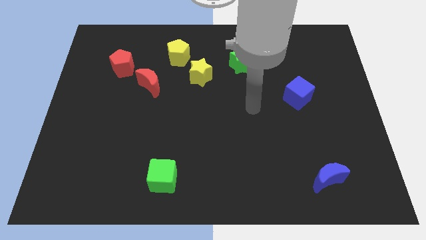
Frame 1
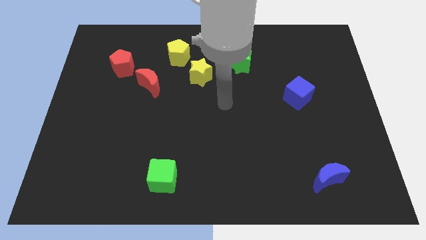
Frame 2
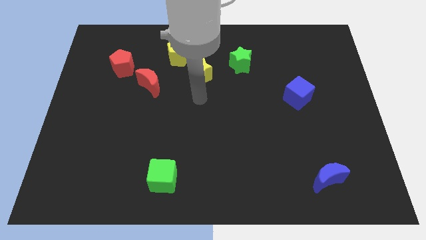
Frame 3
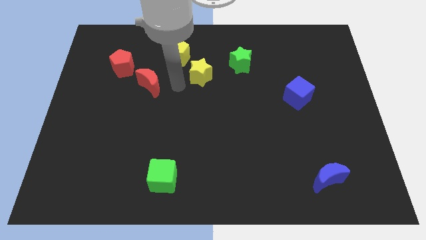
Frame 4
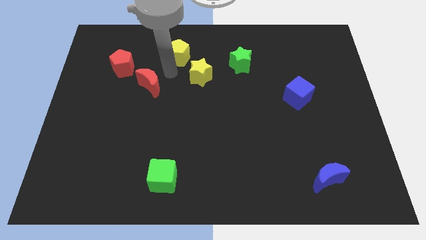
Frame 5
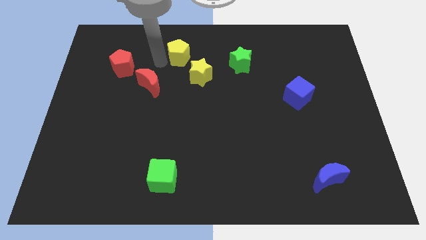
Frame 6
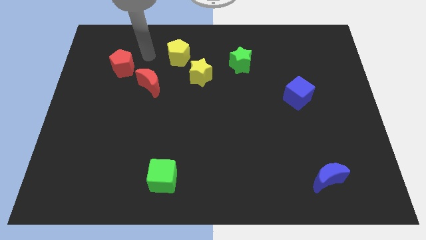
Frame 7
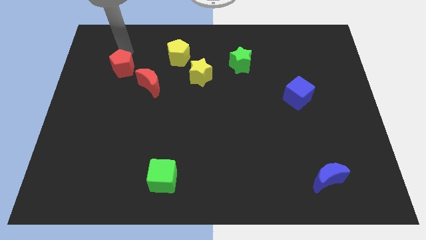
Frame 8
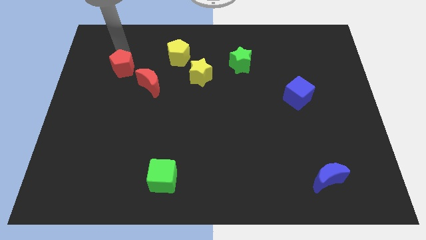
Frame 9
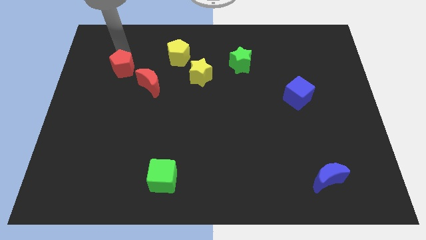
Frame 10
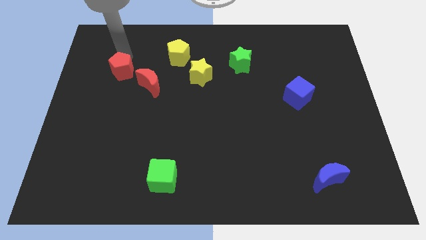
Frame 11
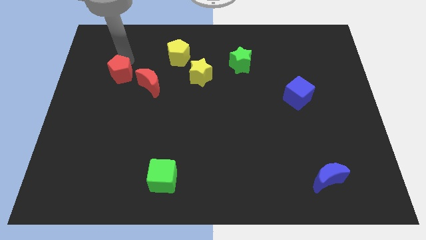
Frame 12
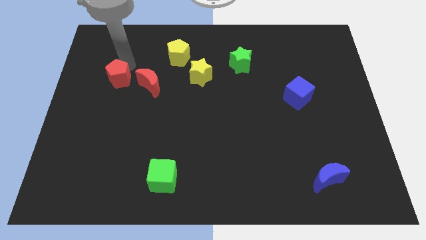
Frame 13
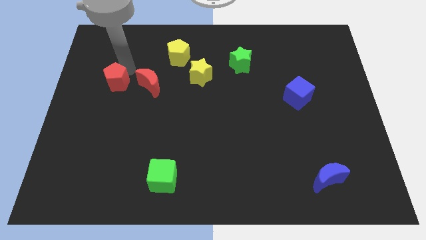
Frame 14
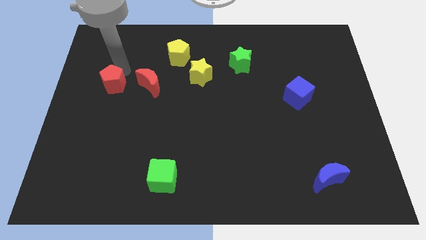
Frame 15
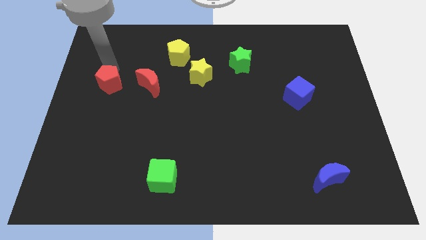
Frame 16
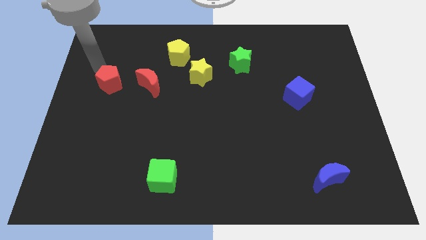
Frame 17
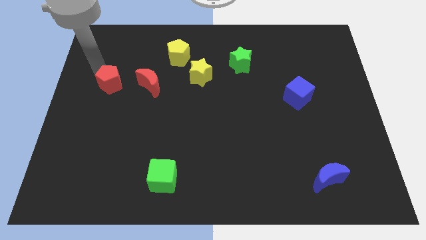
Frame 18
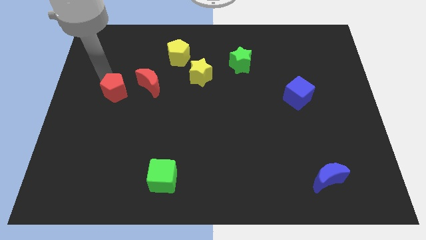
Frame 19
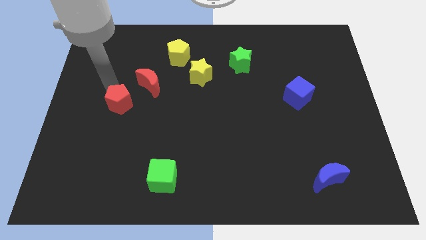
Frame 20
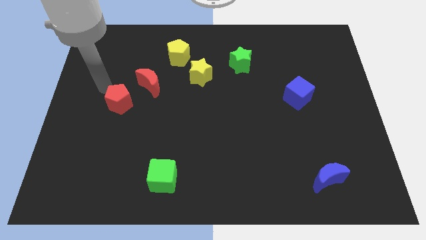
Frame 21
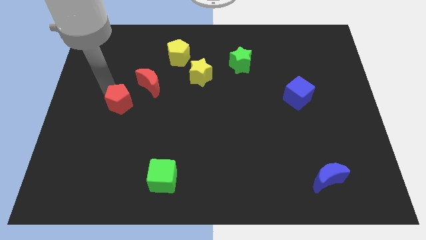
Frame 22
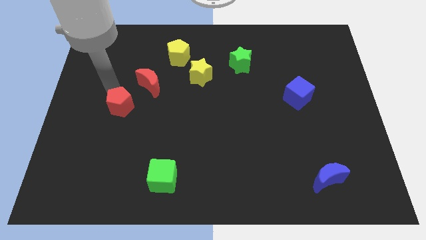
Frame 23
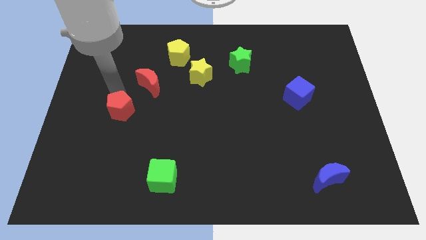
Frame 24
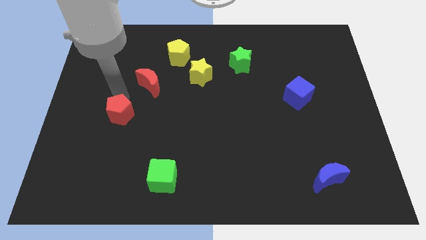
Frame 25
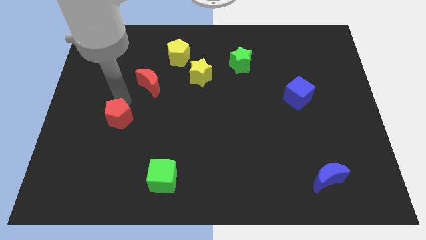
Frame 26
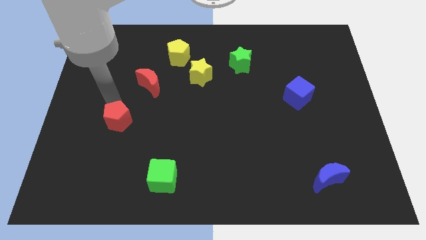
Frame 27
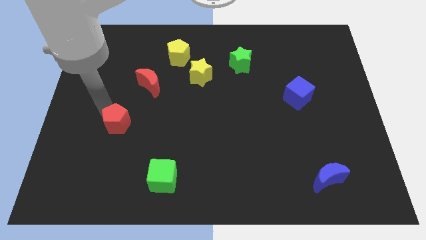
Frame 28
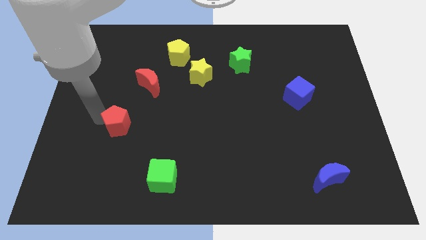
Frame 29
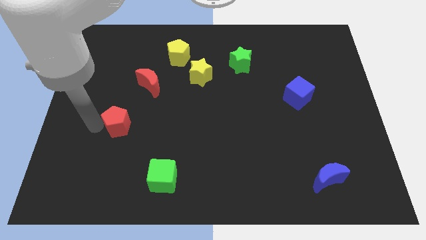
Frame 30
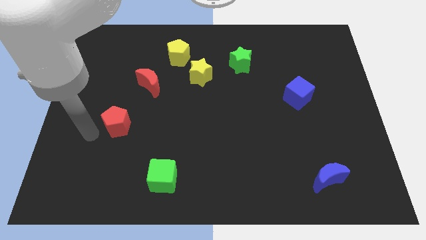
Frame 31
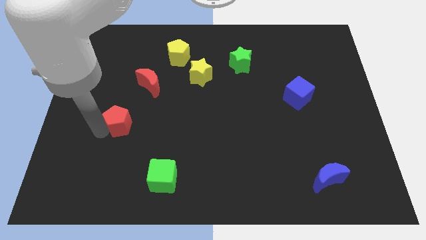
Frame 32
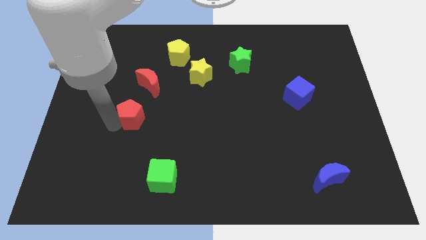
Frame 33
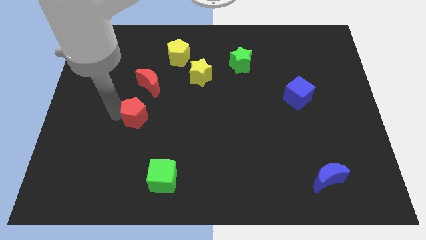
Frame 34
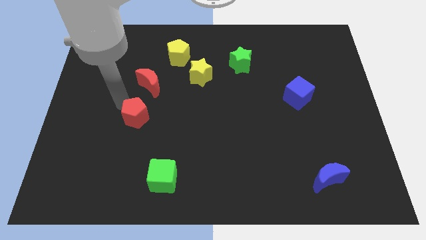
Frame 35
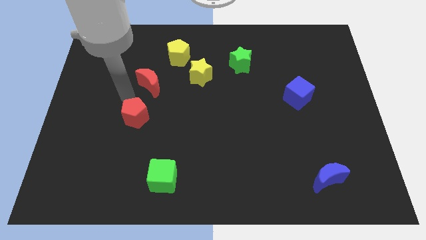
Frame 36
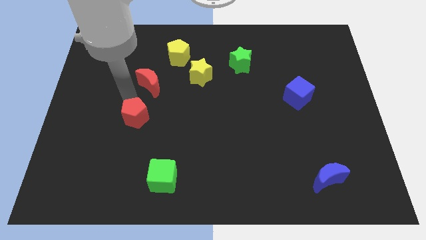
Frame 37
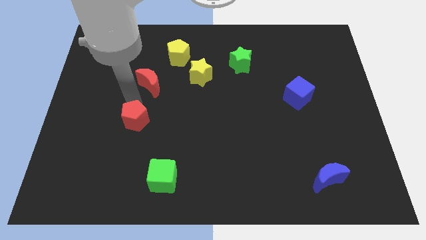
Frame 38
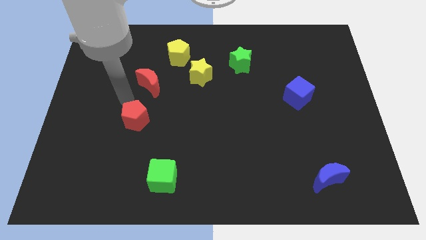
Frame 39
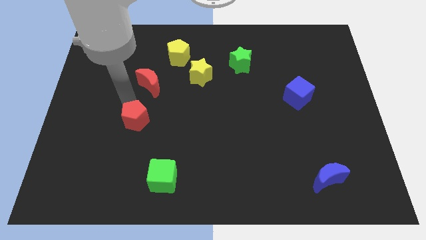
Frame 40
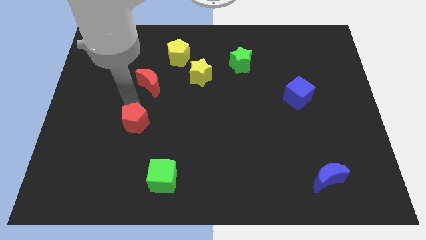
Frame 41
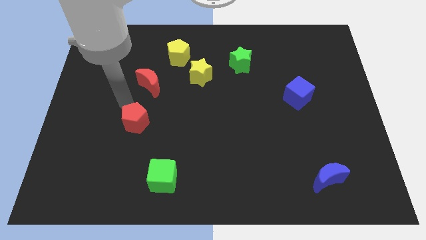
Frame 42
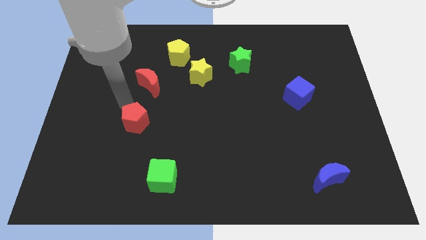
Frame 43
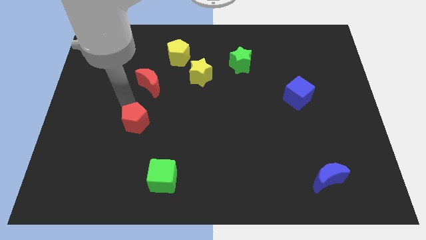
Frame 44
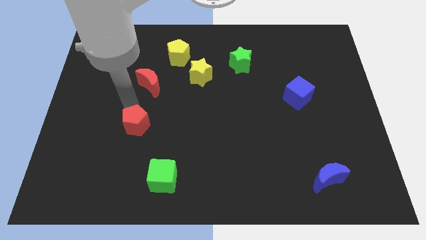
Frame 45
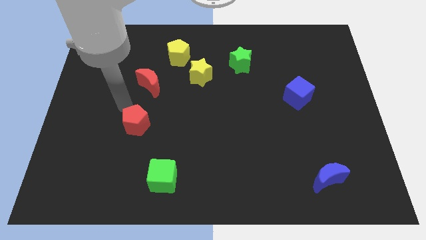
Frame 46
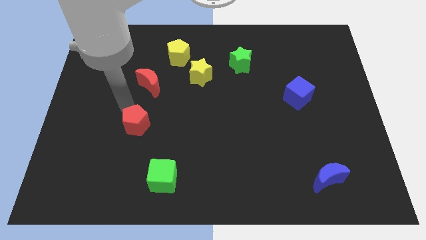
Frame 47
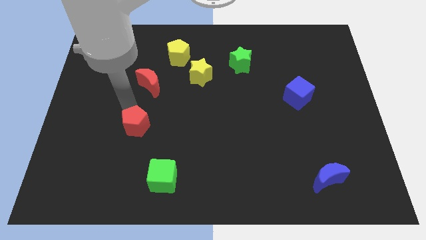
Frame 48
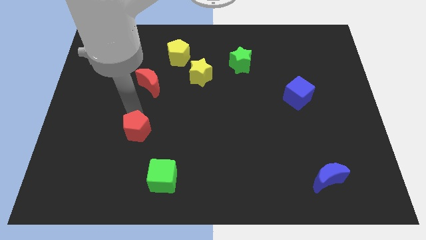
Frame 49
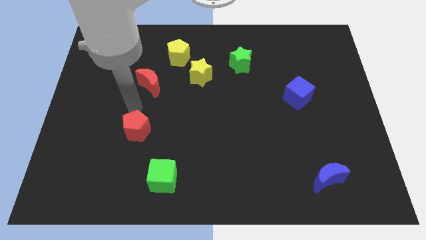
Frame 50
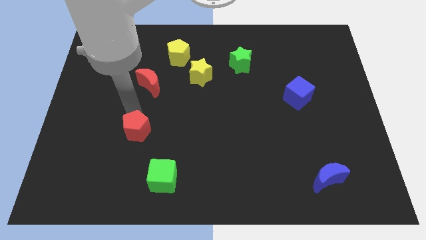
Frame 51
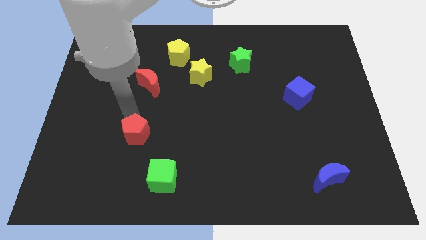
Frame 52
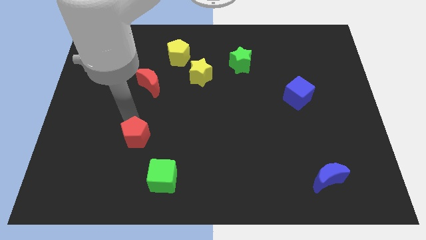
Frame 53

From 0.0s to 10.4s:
put the red pentagon to the top left of the green cube

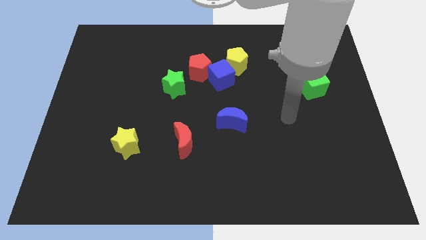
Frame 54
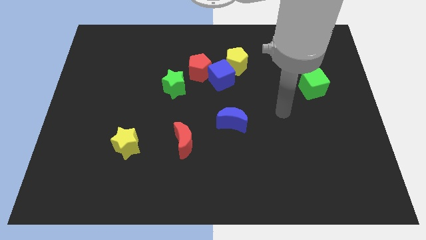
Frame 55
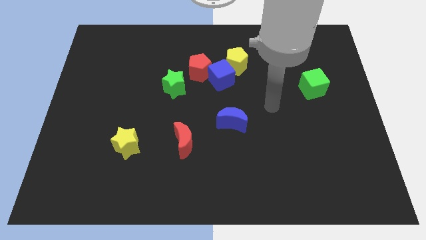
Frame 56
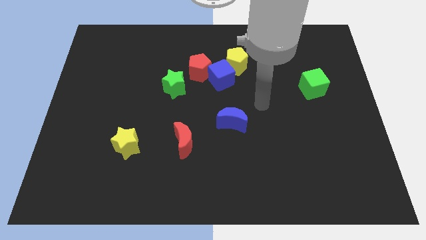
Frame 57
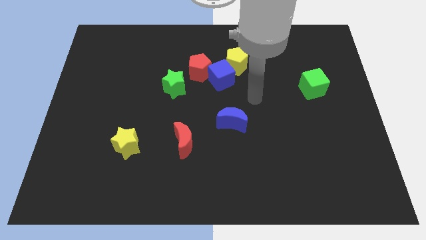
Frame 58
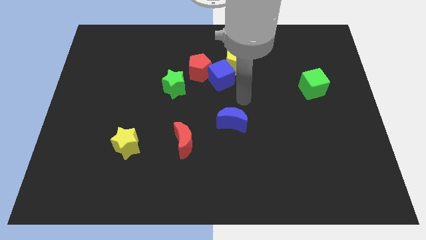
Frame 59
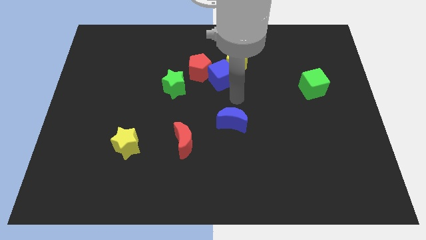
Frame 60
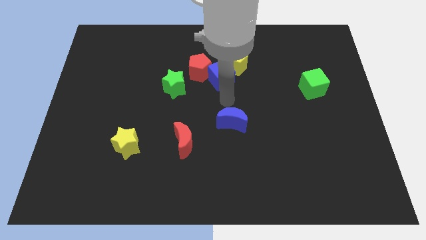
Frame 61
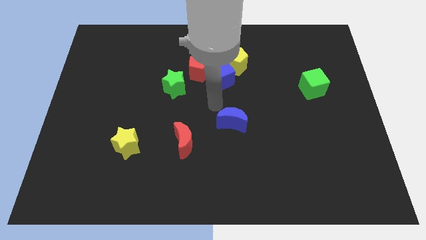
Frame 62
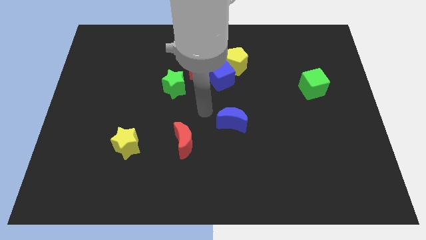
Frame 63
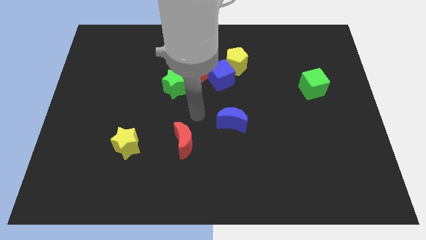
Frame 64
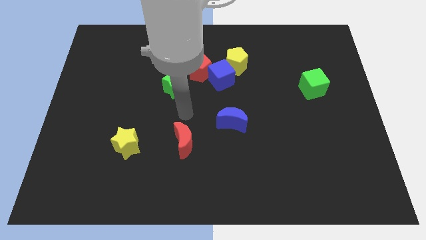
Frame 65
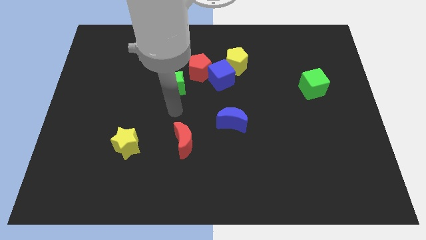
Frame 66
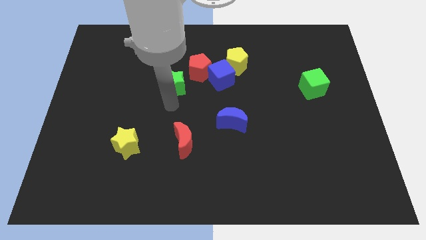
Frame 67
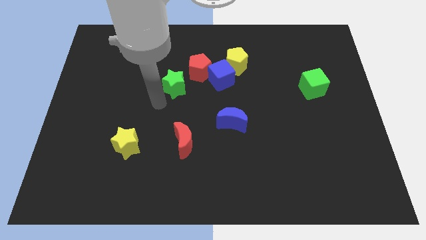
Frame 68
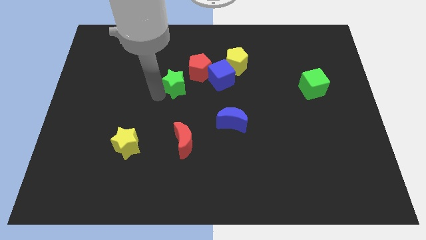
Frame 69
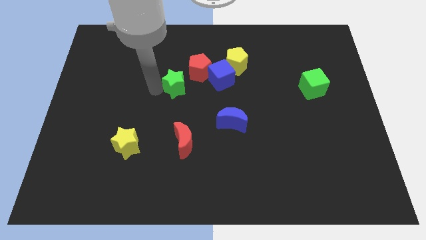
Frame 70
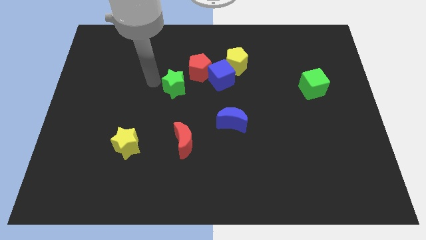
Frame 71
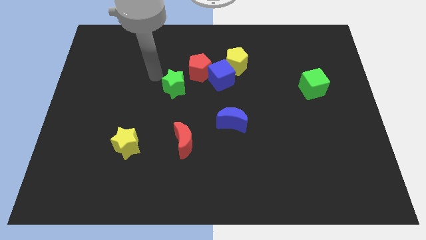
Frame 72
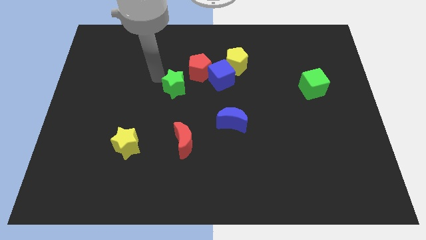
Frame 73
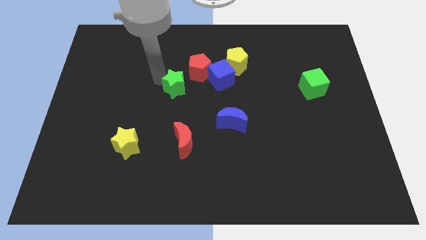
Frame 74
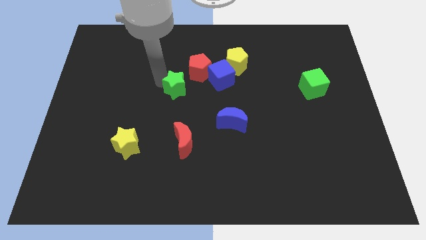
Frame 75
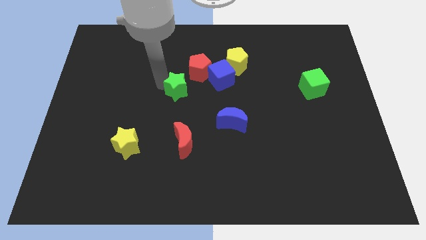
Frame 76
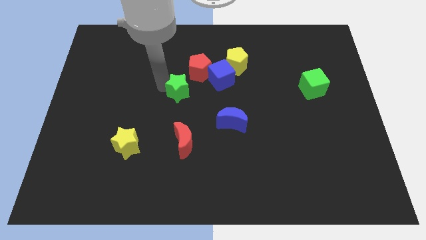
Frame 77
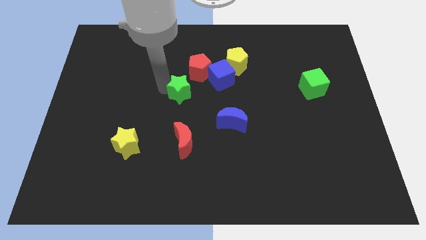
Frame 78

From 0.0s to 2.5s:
push the green star to the bottom side of the red pentagon

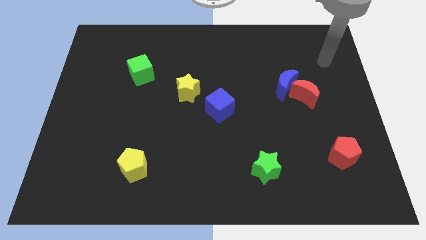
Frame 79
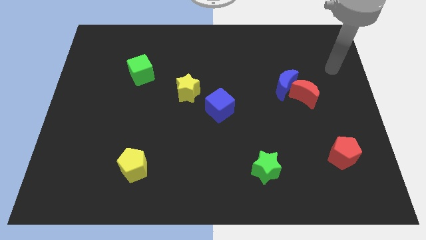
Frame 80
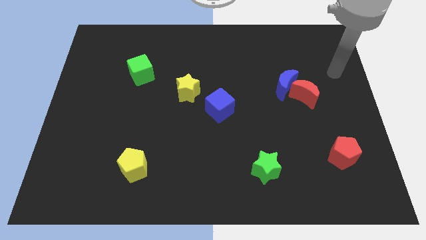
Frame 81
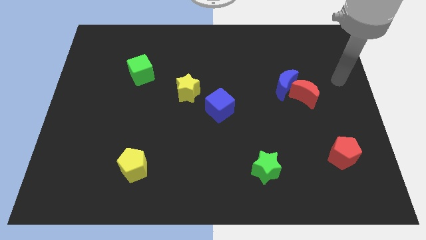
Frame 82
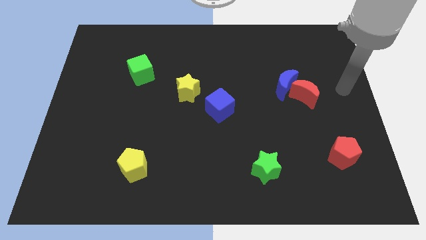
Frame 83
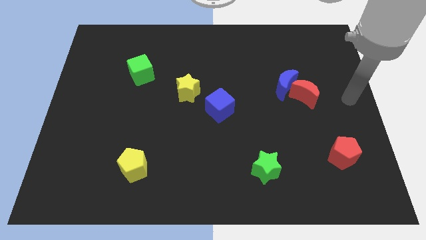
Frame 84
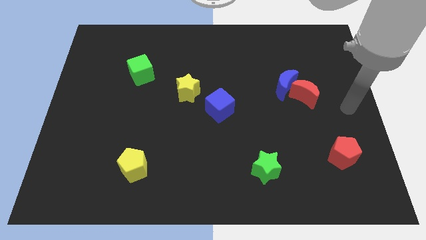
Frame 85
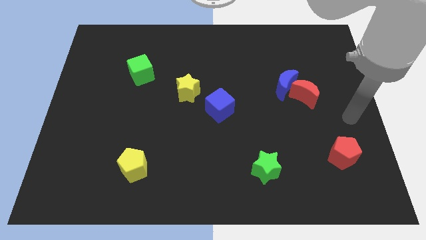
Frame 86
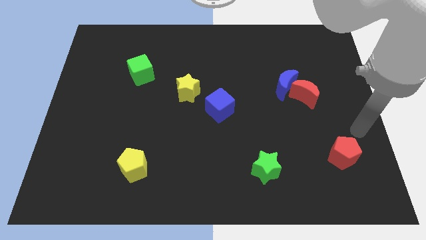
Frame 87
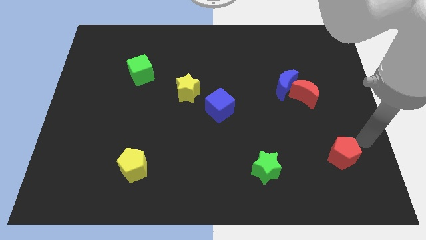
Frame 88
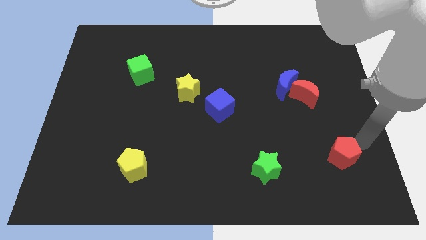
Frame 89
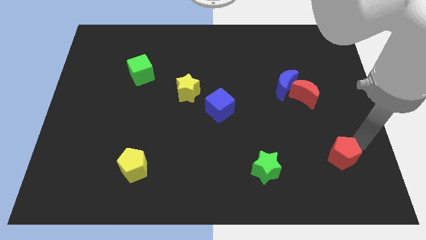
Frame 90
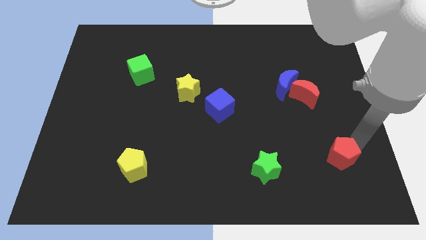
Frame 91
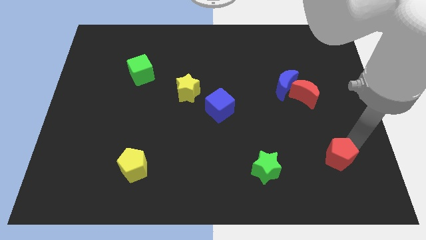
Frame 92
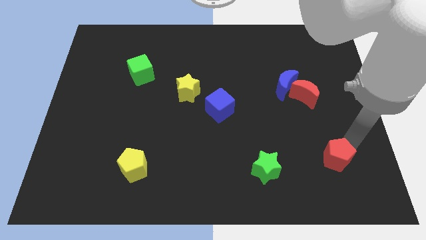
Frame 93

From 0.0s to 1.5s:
push the red pentagon right of the green star
